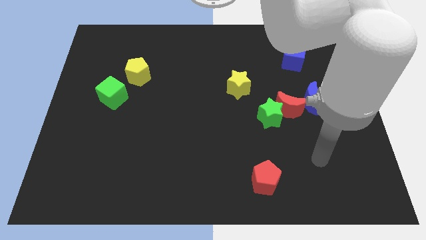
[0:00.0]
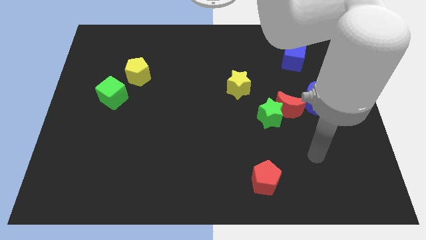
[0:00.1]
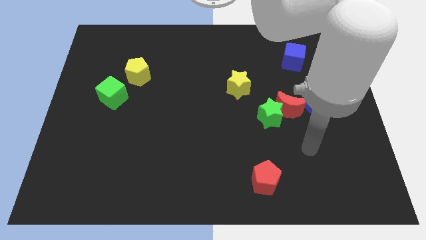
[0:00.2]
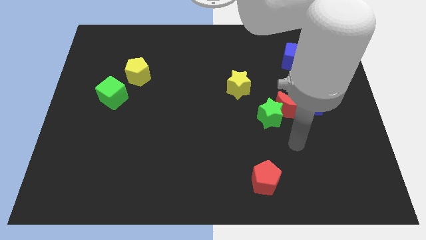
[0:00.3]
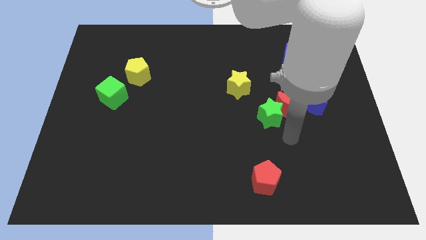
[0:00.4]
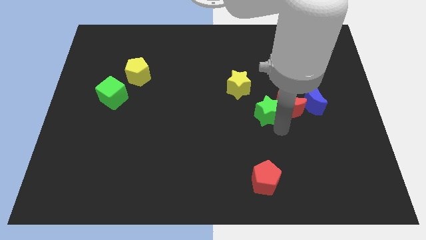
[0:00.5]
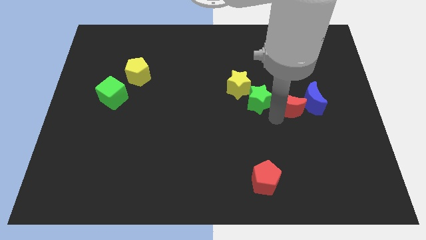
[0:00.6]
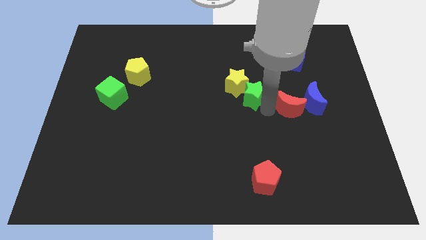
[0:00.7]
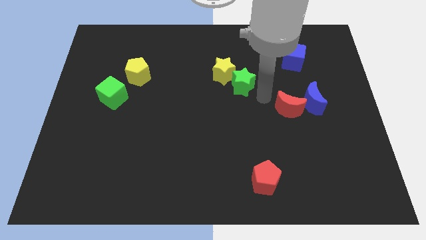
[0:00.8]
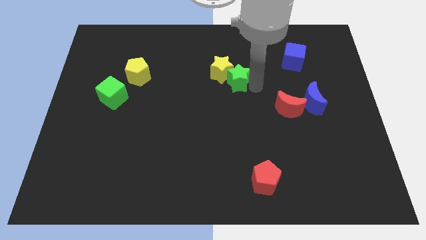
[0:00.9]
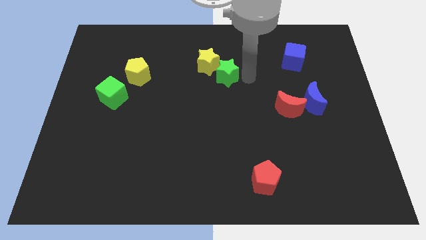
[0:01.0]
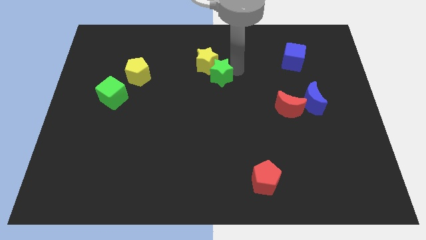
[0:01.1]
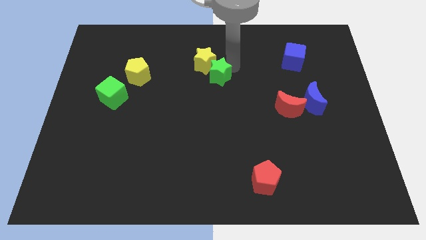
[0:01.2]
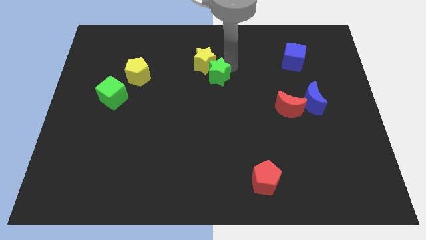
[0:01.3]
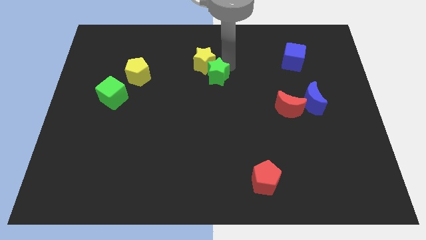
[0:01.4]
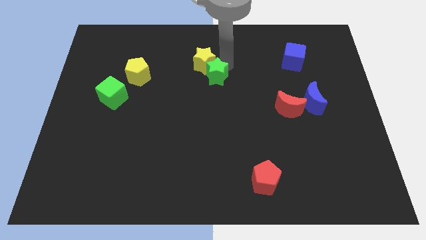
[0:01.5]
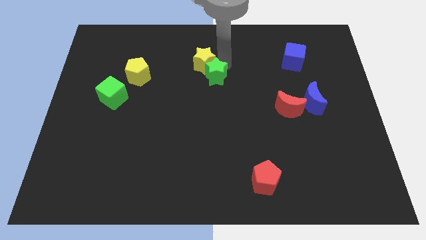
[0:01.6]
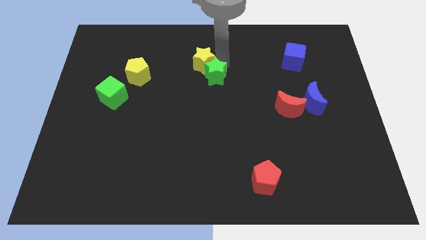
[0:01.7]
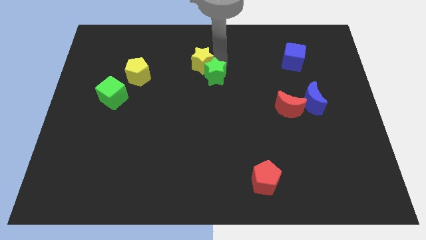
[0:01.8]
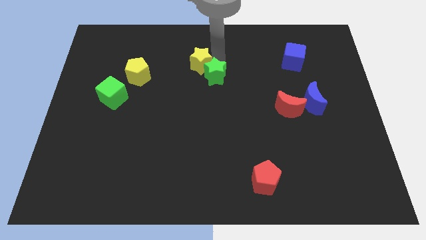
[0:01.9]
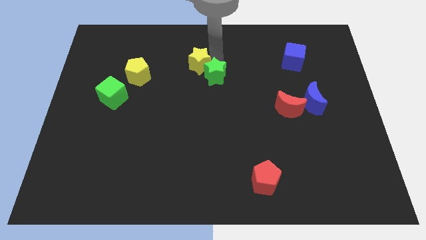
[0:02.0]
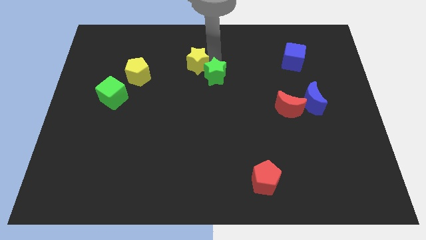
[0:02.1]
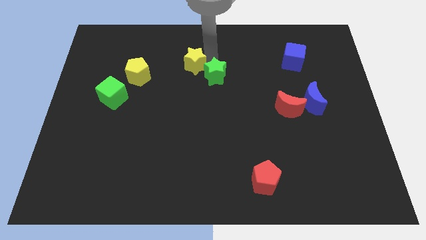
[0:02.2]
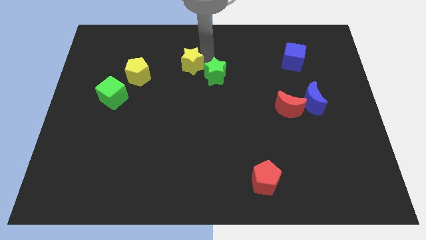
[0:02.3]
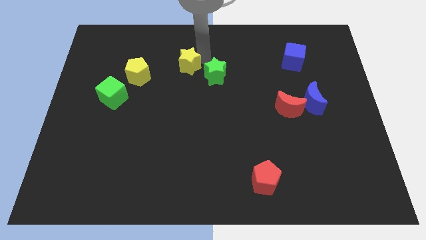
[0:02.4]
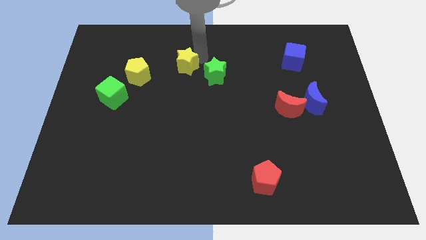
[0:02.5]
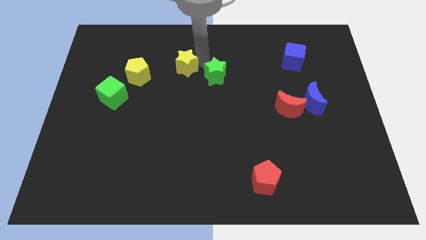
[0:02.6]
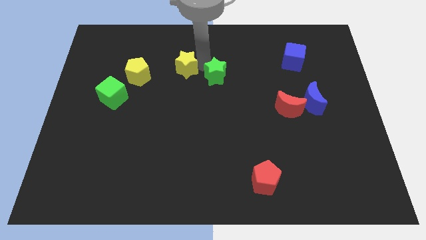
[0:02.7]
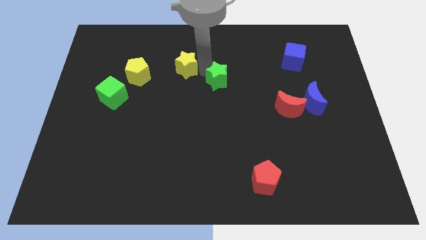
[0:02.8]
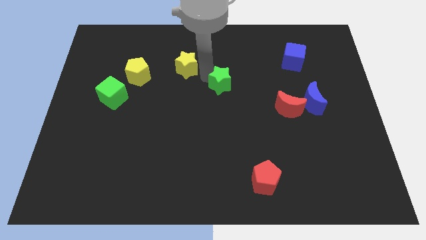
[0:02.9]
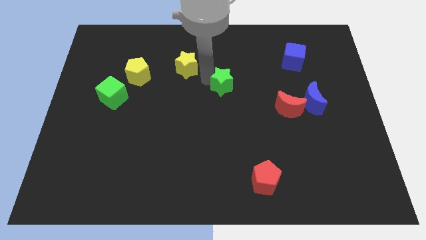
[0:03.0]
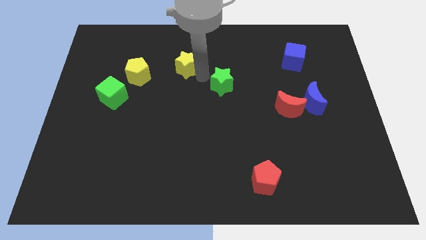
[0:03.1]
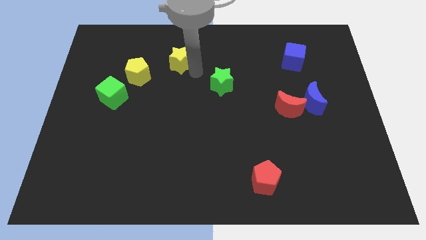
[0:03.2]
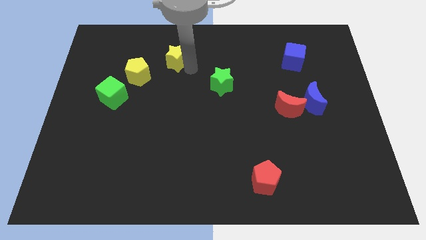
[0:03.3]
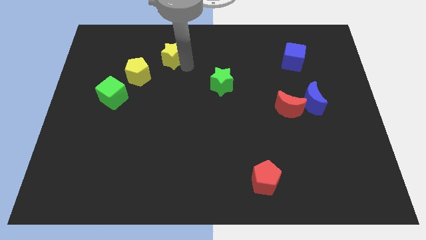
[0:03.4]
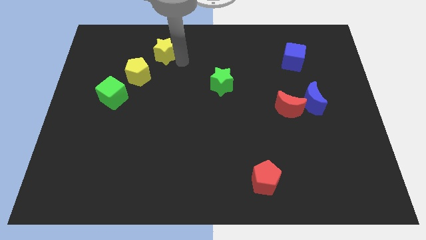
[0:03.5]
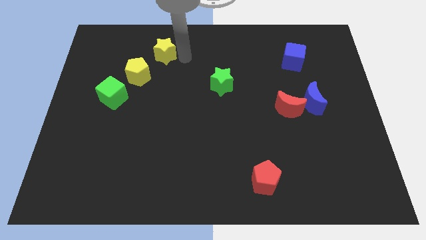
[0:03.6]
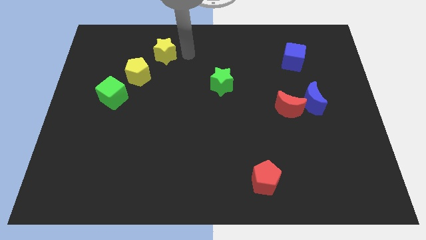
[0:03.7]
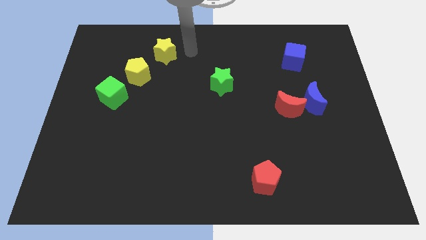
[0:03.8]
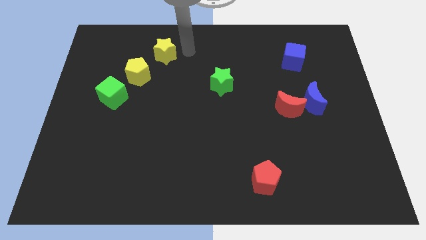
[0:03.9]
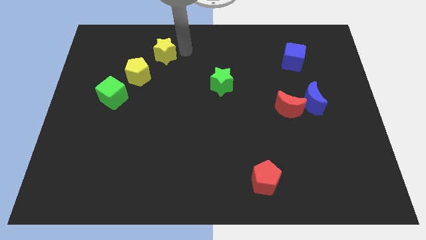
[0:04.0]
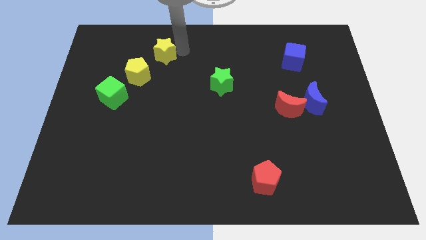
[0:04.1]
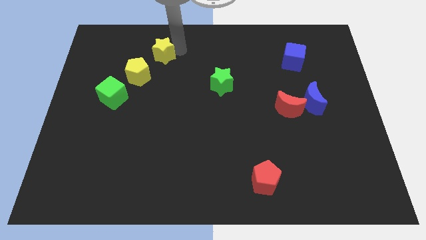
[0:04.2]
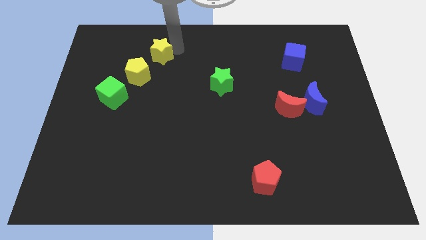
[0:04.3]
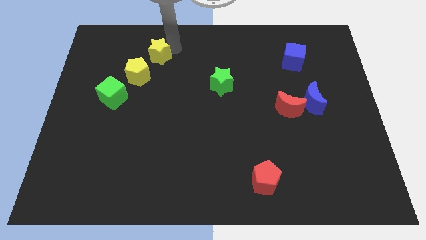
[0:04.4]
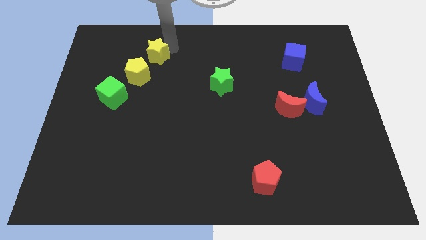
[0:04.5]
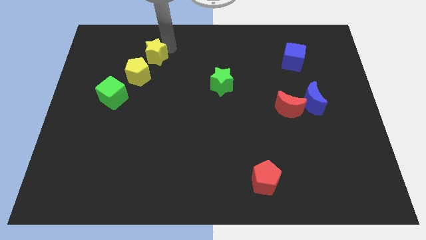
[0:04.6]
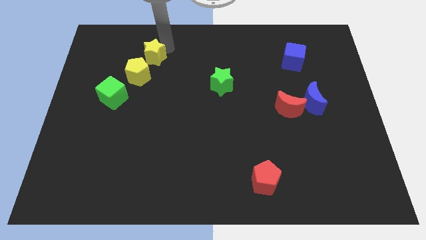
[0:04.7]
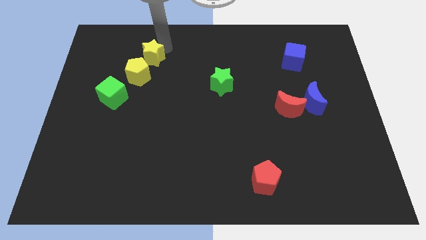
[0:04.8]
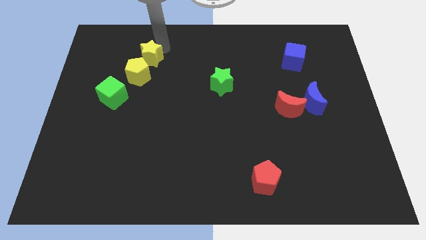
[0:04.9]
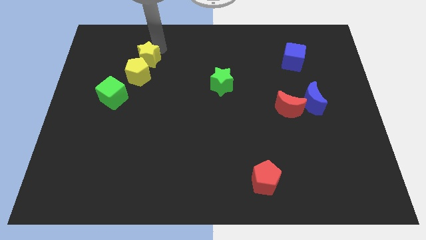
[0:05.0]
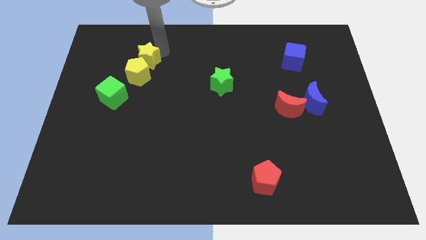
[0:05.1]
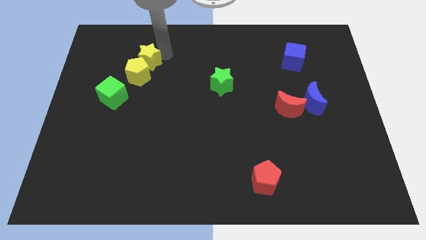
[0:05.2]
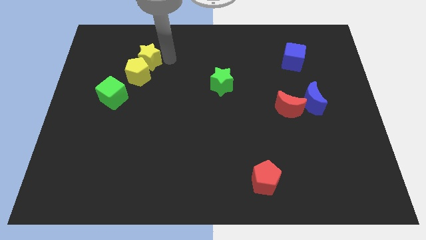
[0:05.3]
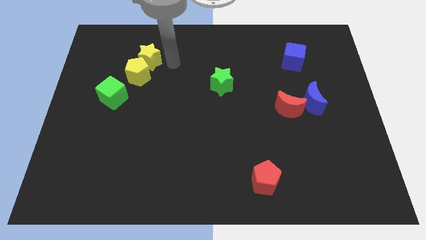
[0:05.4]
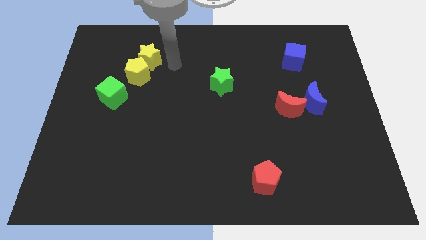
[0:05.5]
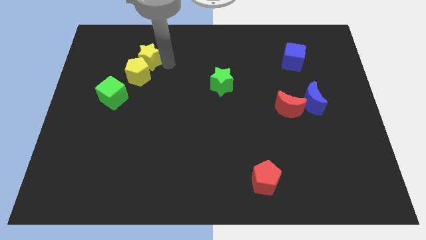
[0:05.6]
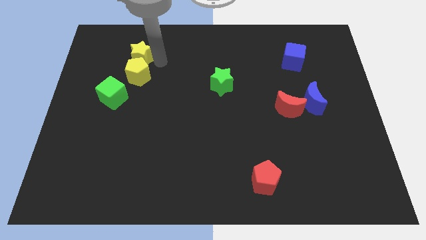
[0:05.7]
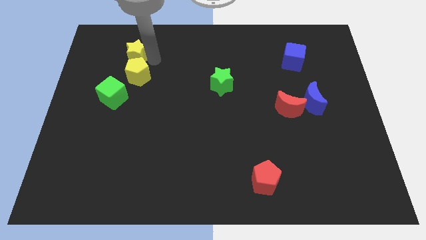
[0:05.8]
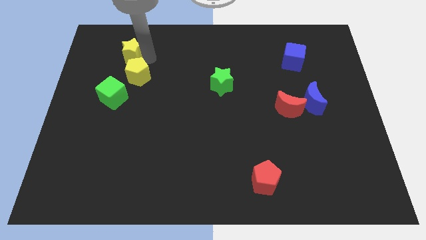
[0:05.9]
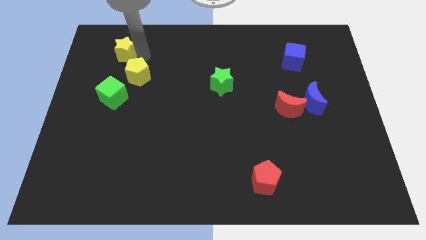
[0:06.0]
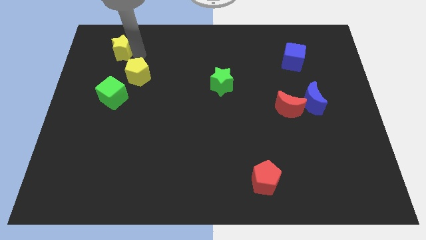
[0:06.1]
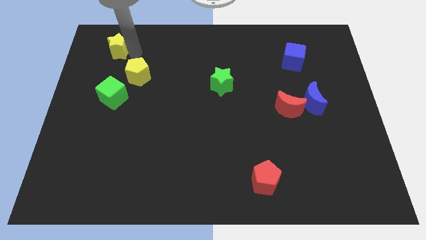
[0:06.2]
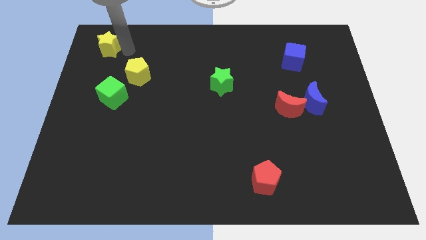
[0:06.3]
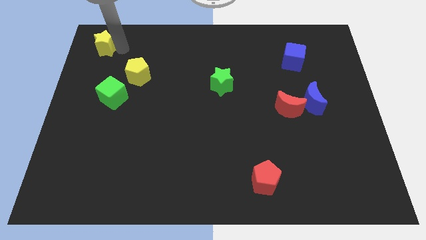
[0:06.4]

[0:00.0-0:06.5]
slide the yellow star to the upper left corner

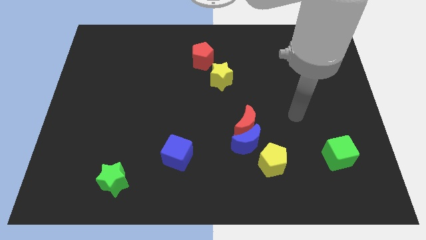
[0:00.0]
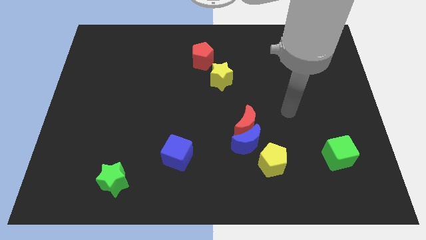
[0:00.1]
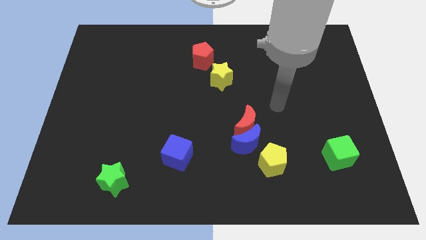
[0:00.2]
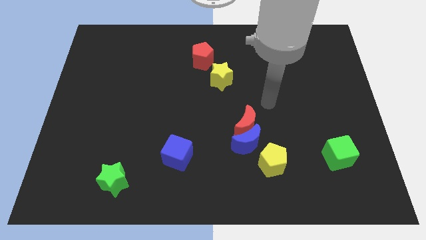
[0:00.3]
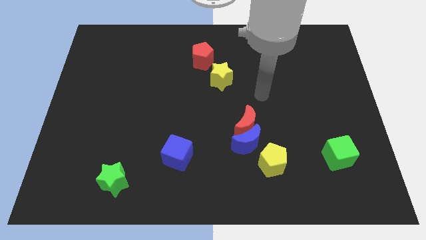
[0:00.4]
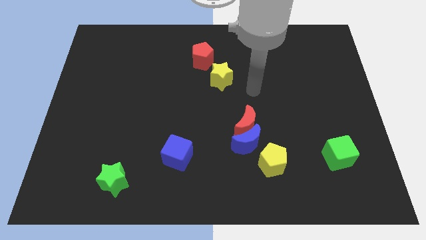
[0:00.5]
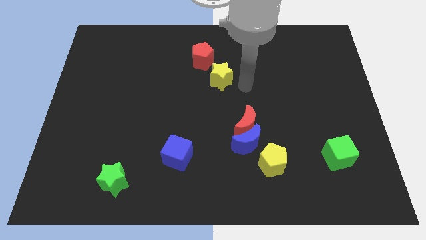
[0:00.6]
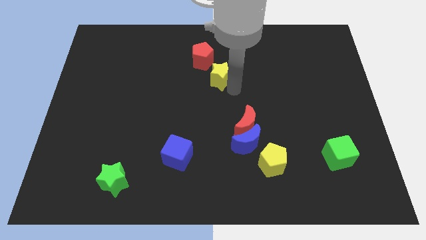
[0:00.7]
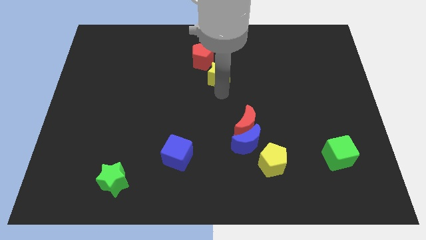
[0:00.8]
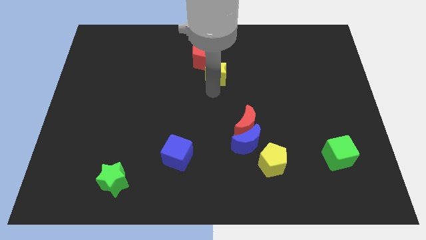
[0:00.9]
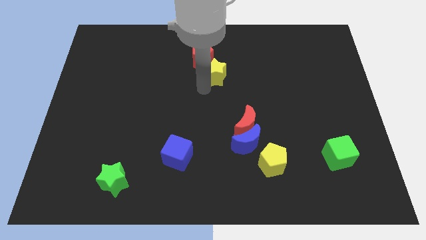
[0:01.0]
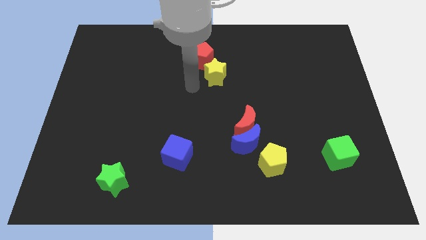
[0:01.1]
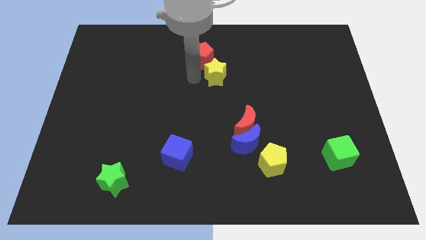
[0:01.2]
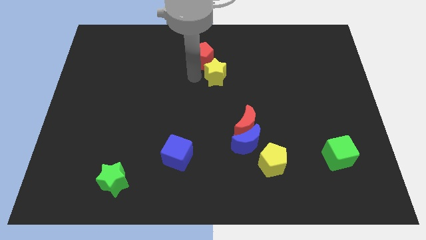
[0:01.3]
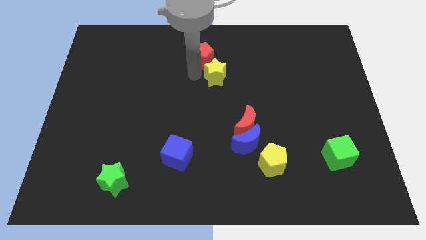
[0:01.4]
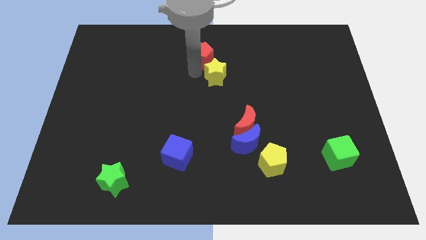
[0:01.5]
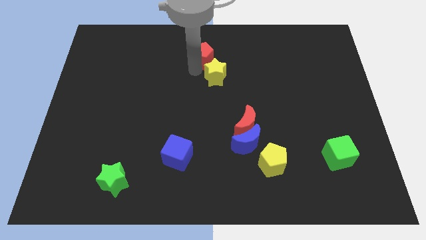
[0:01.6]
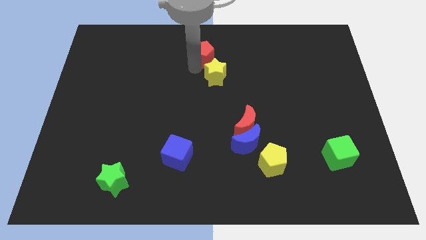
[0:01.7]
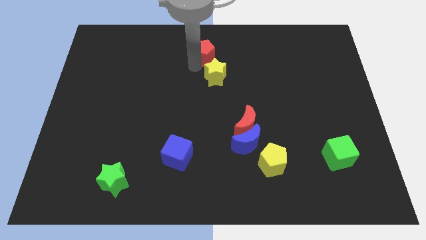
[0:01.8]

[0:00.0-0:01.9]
push the red pentagon to the top
